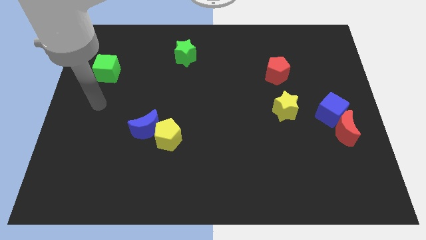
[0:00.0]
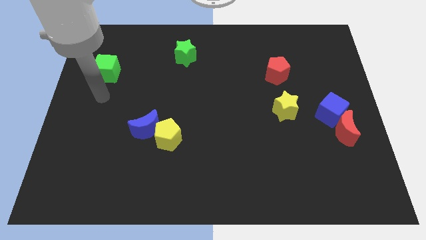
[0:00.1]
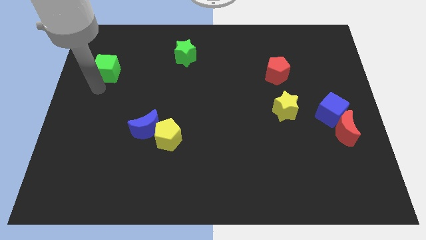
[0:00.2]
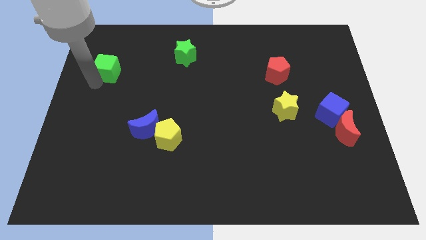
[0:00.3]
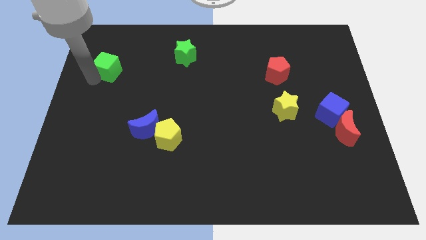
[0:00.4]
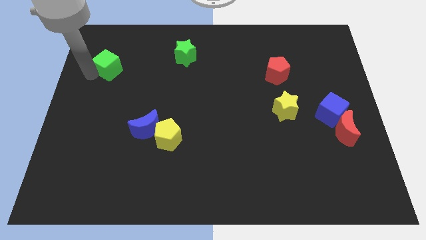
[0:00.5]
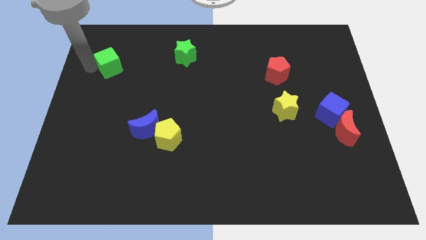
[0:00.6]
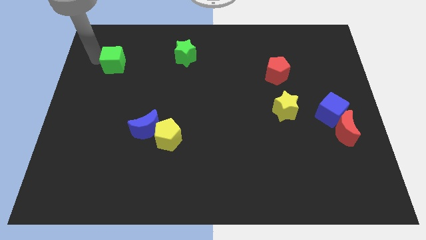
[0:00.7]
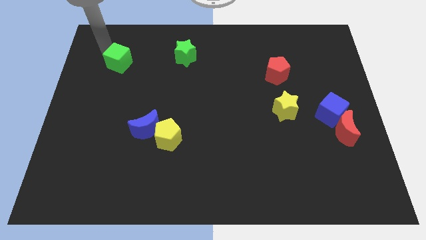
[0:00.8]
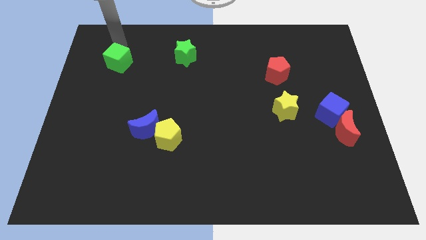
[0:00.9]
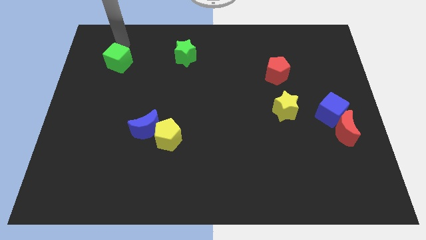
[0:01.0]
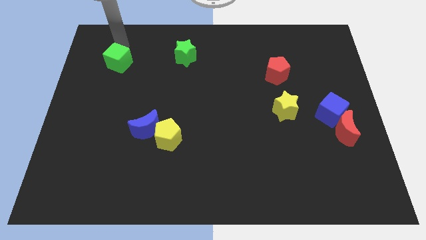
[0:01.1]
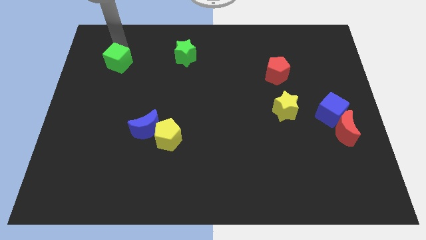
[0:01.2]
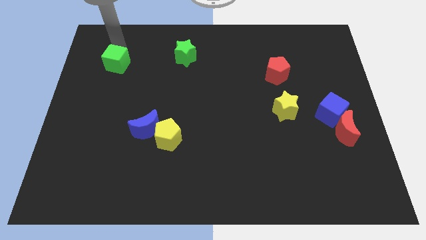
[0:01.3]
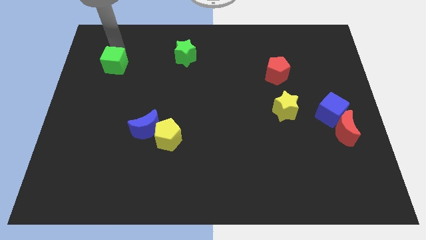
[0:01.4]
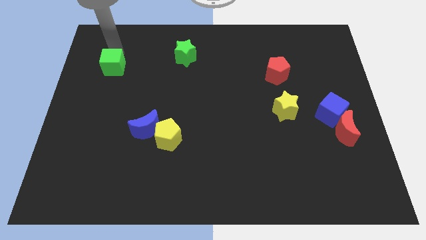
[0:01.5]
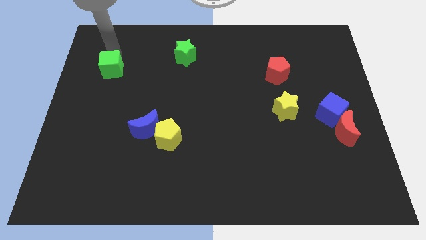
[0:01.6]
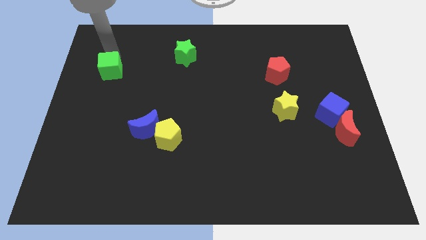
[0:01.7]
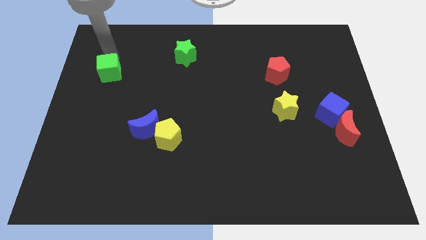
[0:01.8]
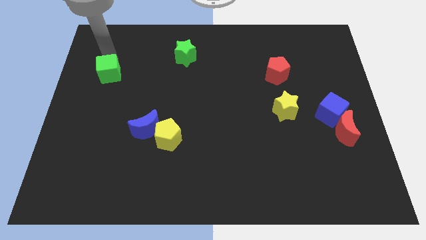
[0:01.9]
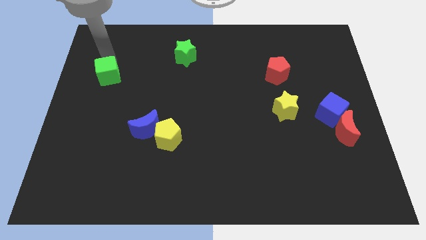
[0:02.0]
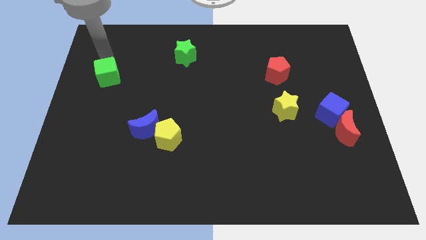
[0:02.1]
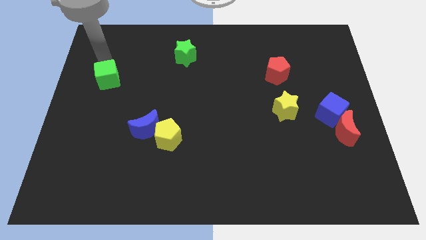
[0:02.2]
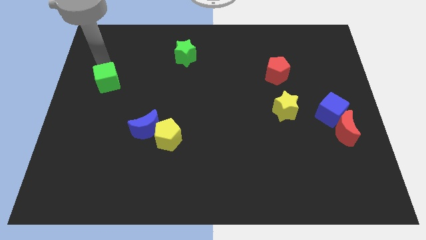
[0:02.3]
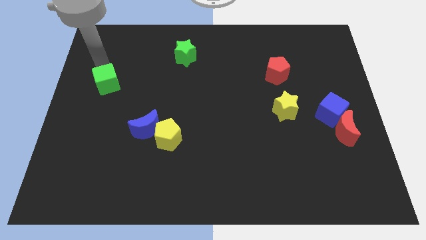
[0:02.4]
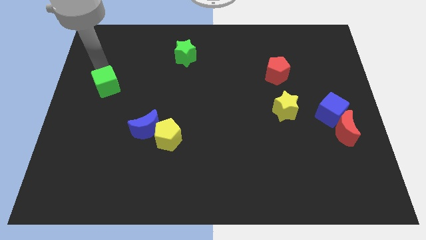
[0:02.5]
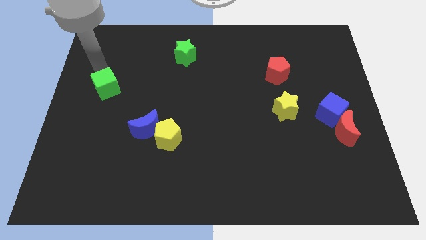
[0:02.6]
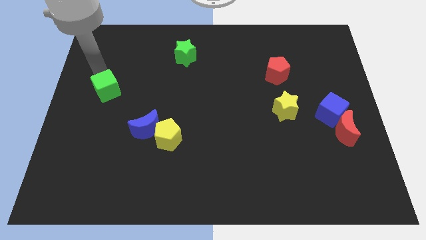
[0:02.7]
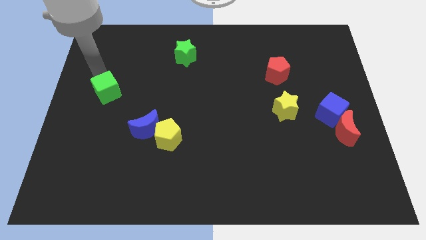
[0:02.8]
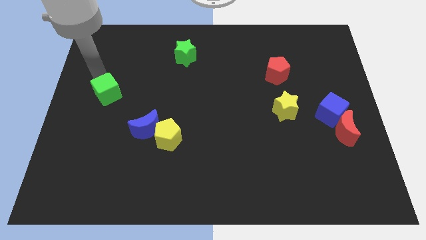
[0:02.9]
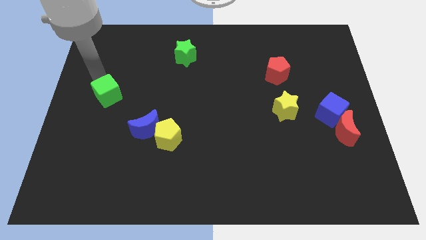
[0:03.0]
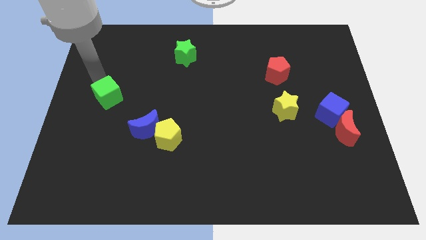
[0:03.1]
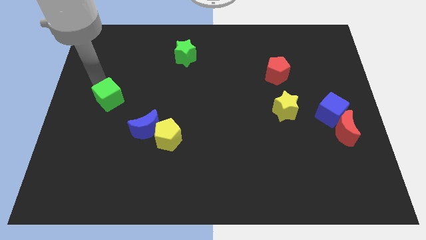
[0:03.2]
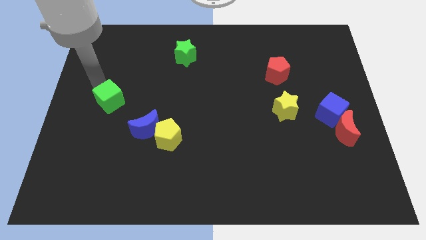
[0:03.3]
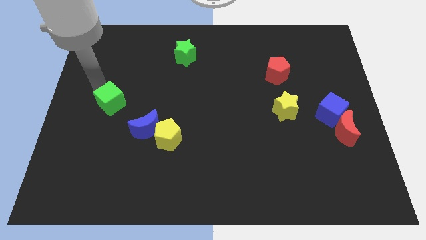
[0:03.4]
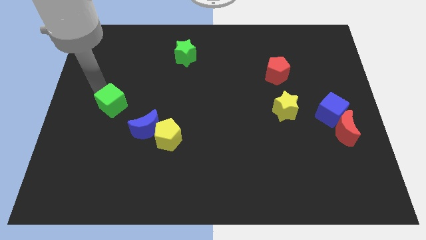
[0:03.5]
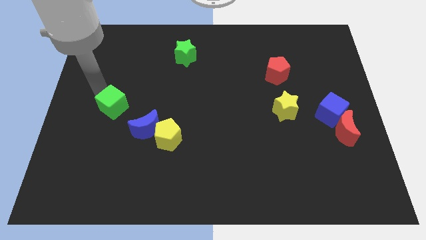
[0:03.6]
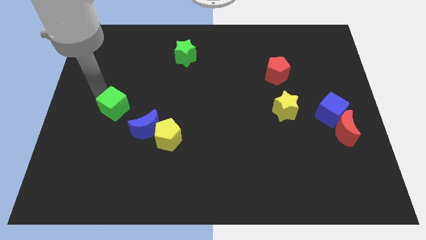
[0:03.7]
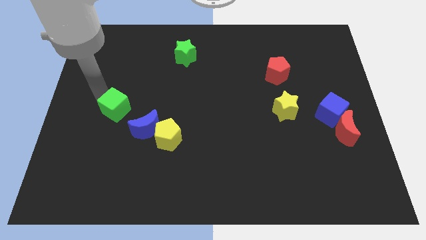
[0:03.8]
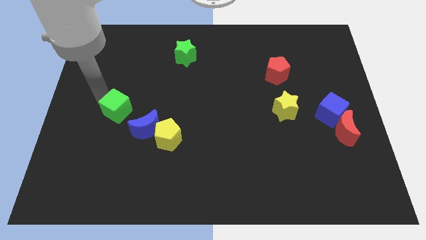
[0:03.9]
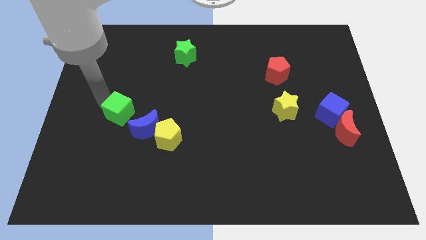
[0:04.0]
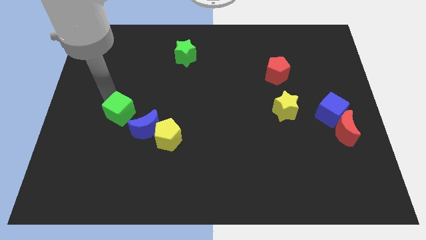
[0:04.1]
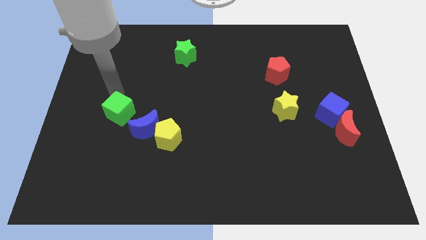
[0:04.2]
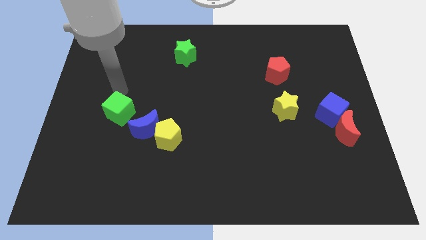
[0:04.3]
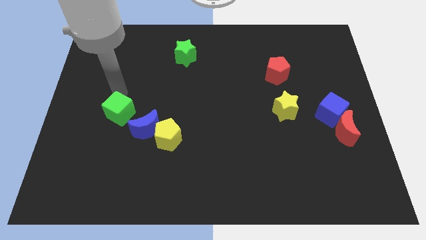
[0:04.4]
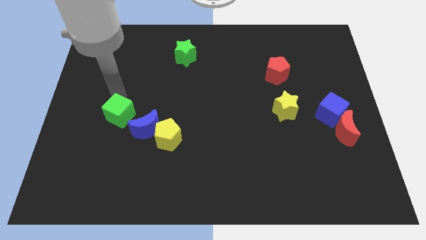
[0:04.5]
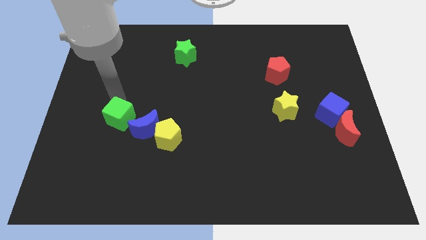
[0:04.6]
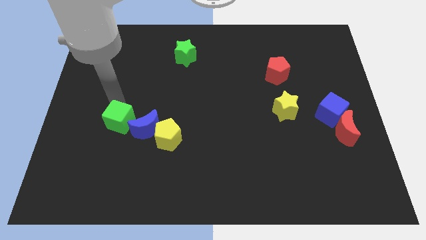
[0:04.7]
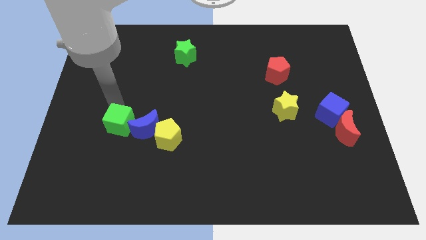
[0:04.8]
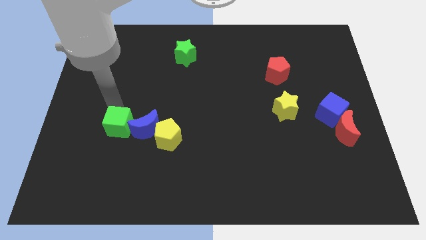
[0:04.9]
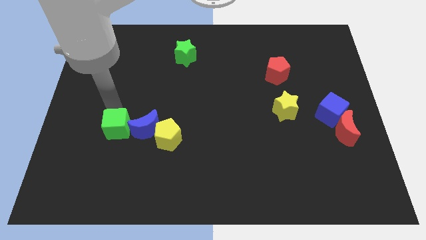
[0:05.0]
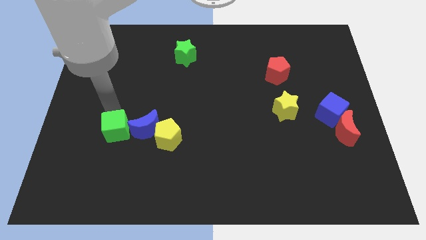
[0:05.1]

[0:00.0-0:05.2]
slide the green cube to the bottom left side of the blue moon

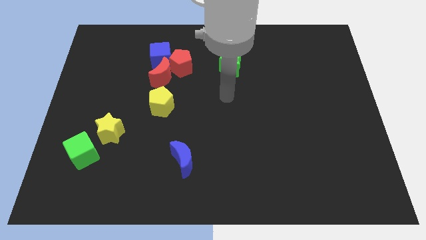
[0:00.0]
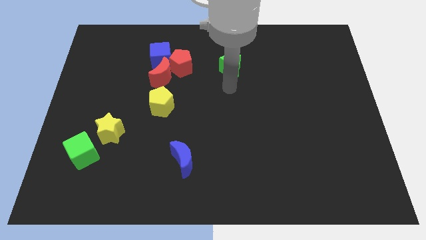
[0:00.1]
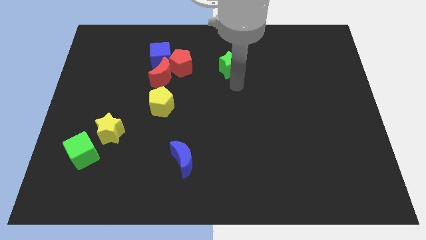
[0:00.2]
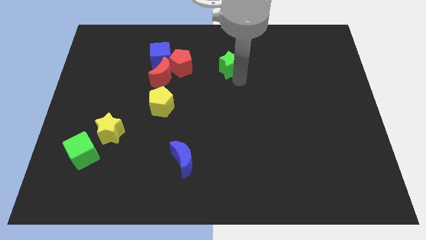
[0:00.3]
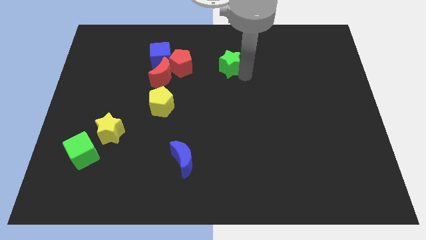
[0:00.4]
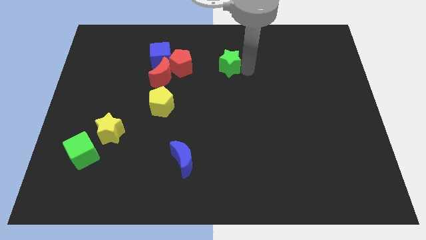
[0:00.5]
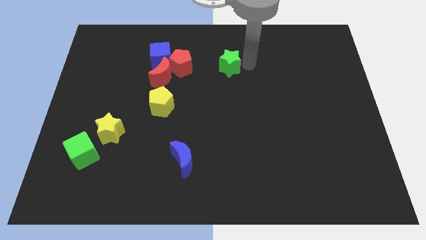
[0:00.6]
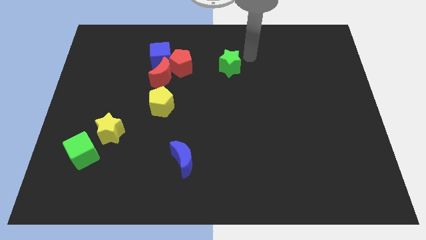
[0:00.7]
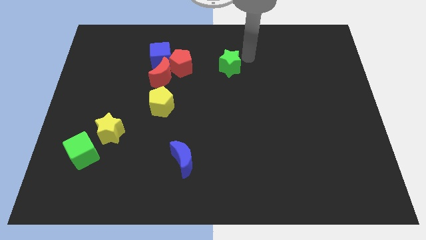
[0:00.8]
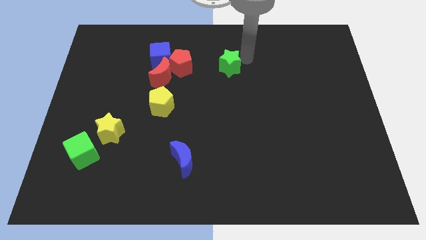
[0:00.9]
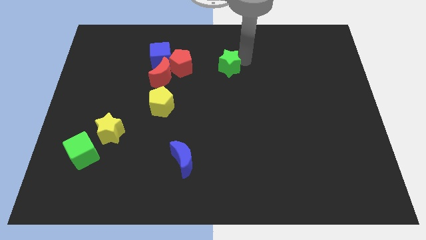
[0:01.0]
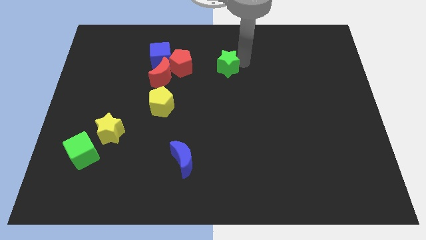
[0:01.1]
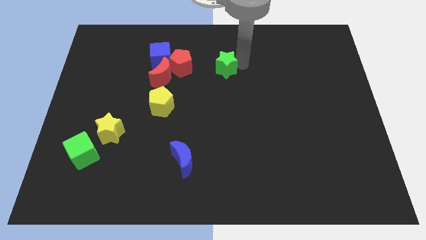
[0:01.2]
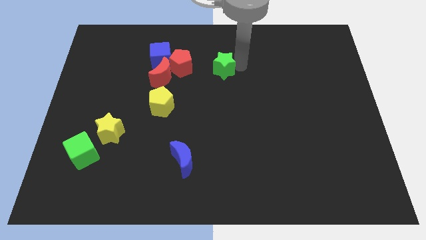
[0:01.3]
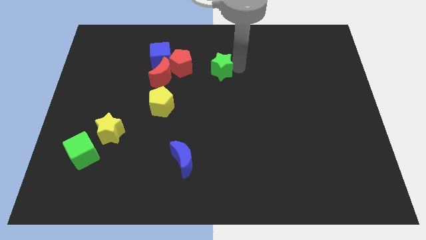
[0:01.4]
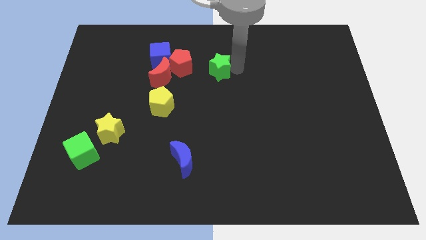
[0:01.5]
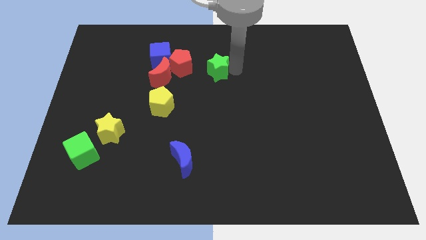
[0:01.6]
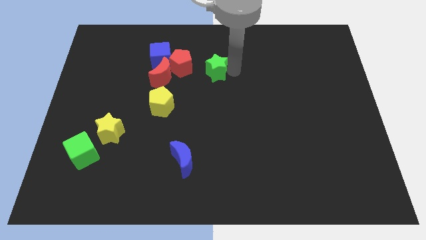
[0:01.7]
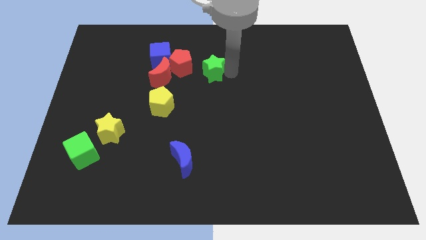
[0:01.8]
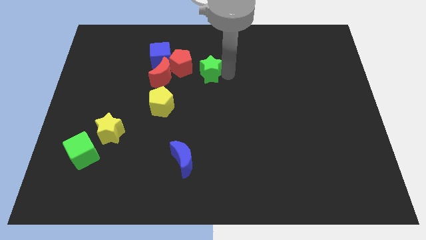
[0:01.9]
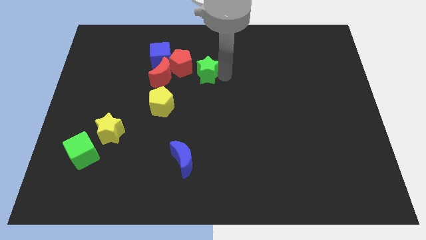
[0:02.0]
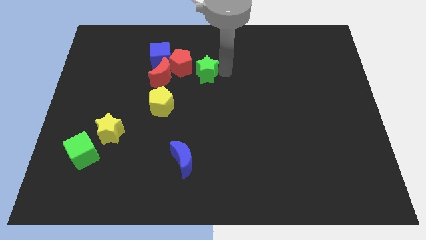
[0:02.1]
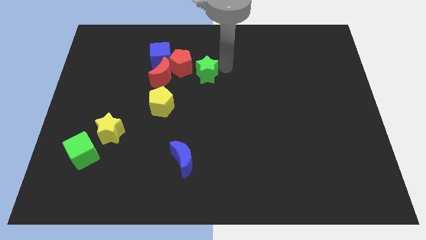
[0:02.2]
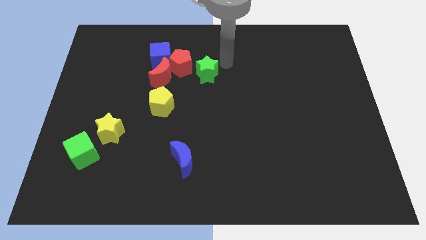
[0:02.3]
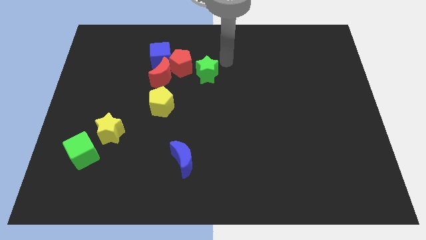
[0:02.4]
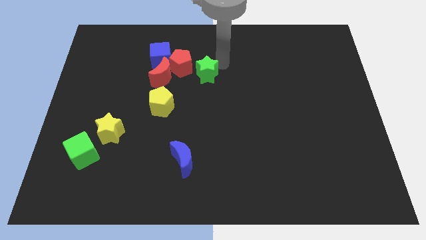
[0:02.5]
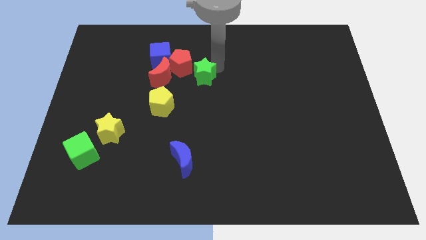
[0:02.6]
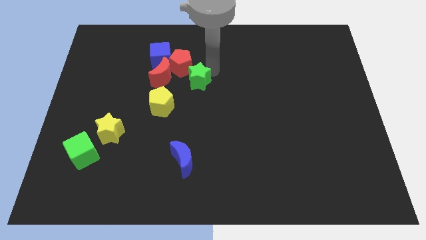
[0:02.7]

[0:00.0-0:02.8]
push the green star to the top right side of the yellow pentagon
